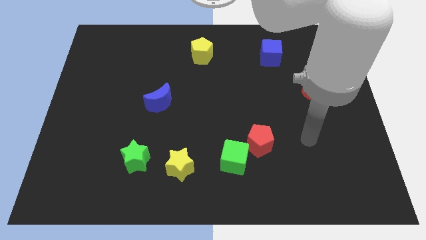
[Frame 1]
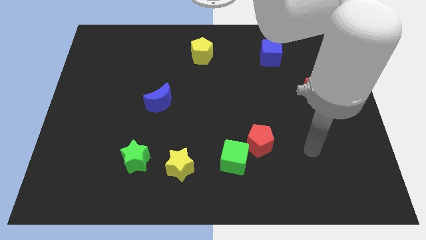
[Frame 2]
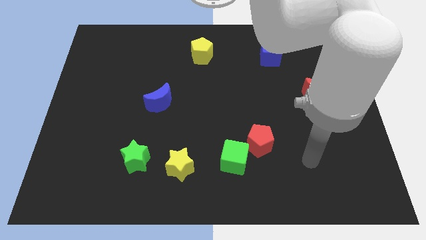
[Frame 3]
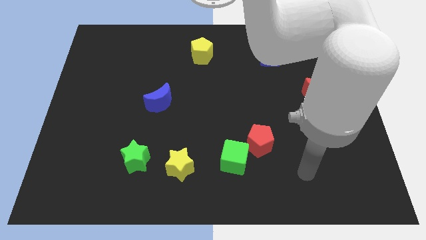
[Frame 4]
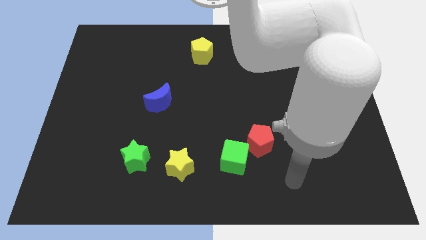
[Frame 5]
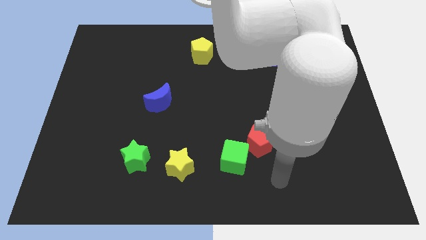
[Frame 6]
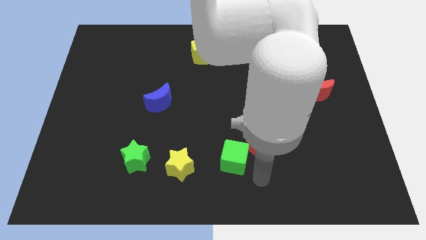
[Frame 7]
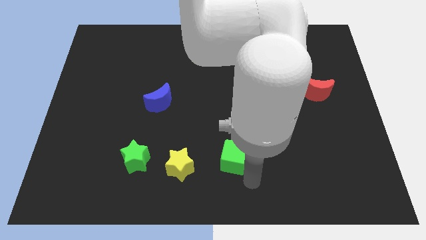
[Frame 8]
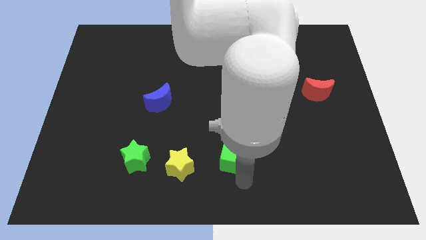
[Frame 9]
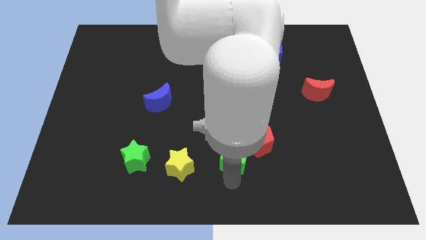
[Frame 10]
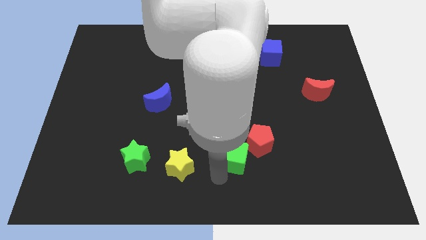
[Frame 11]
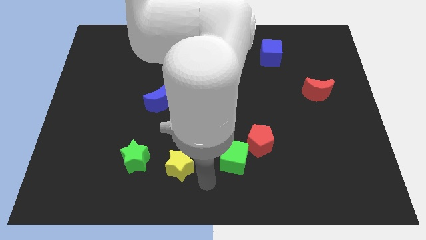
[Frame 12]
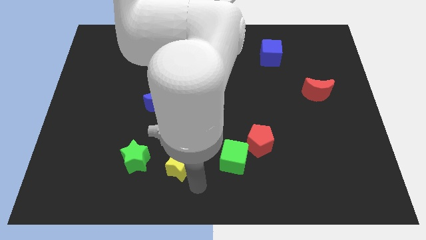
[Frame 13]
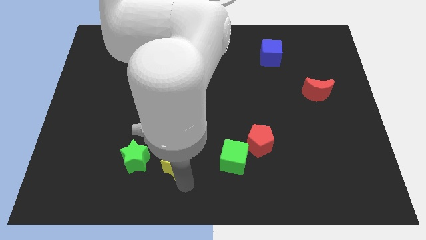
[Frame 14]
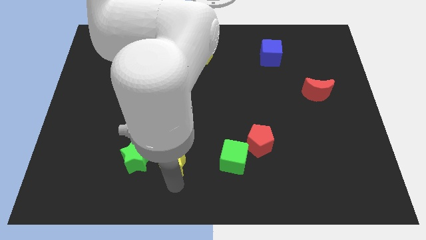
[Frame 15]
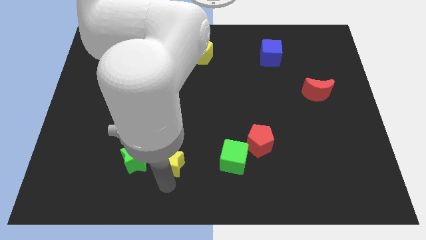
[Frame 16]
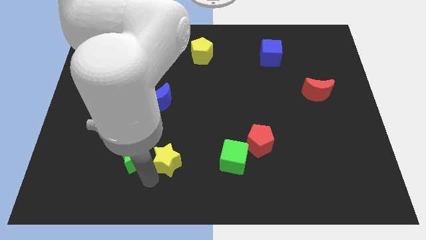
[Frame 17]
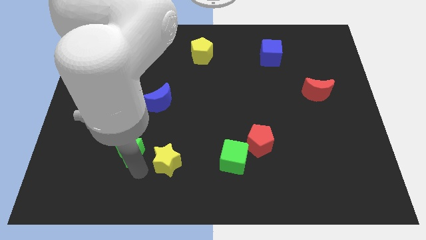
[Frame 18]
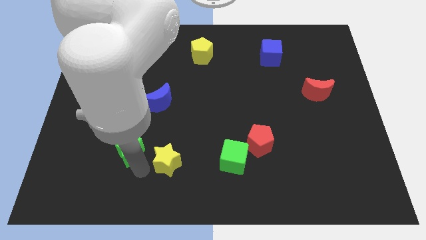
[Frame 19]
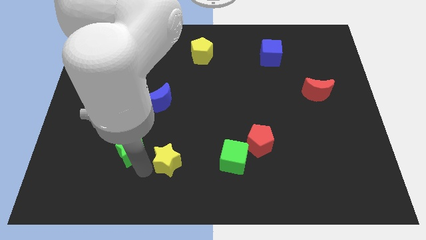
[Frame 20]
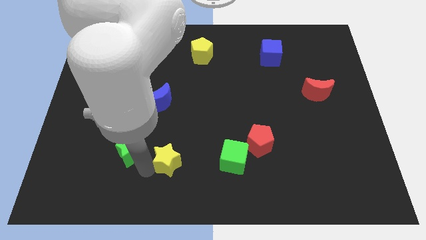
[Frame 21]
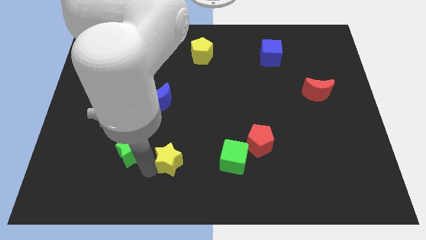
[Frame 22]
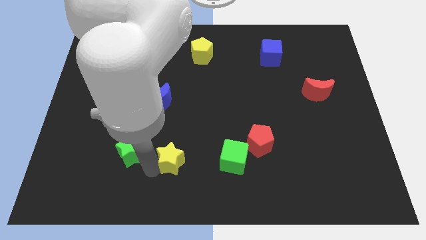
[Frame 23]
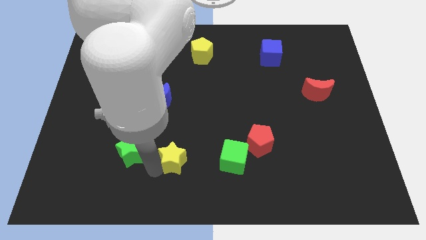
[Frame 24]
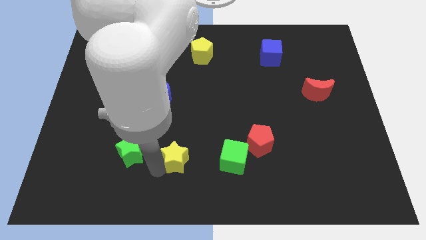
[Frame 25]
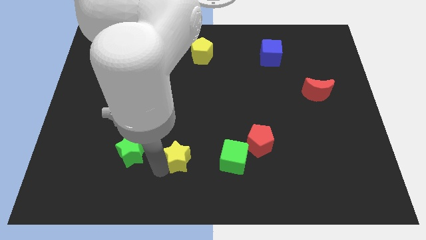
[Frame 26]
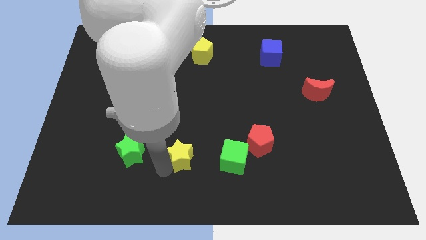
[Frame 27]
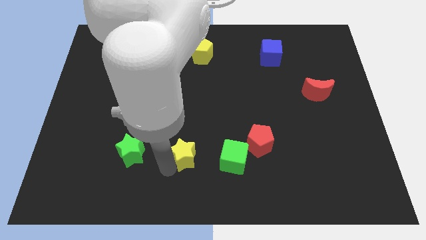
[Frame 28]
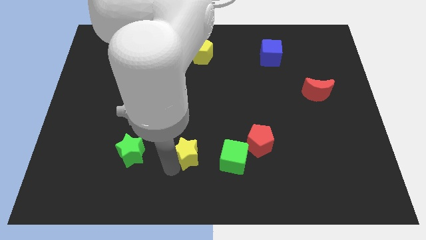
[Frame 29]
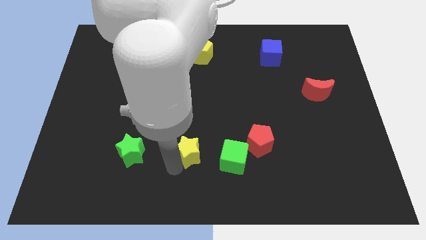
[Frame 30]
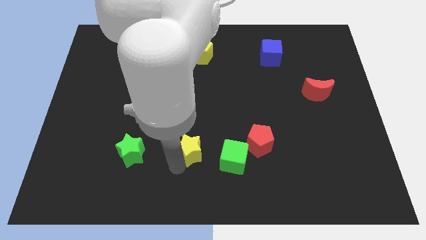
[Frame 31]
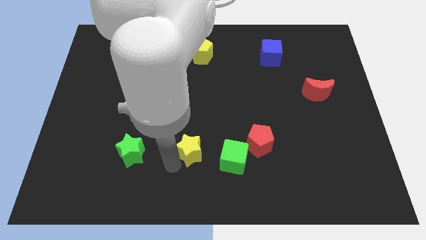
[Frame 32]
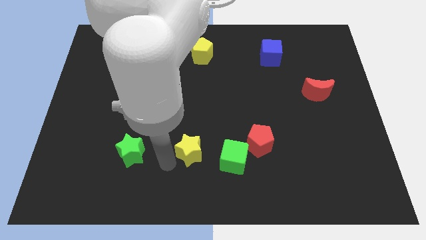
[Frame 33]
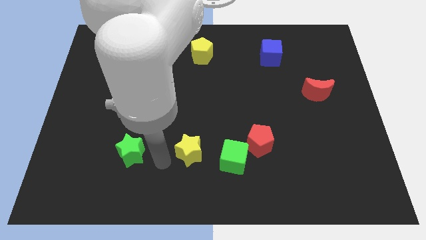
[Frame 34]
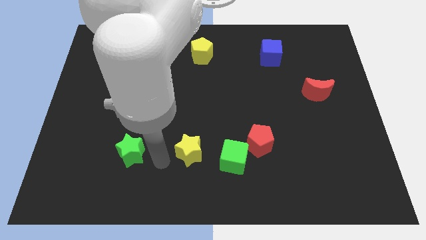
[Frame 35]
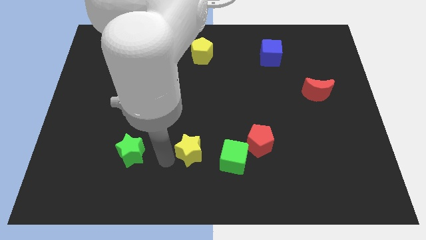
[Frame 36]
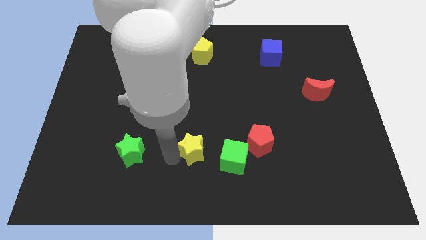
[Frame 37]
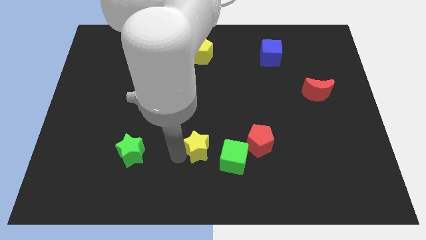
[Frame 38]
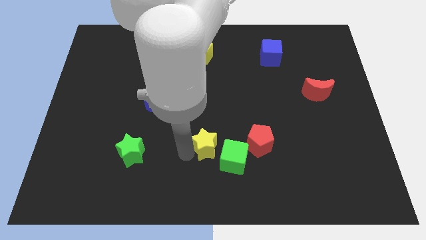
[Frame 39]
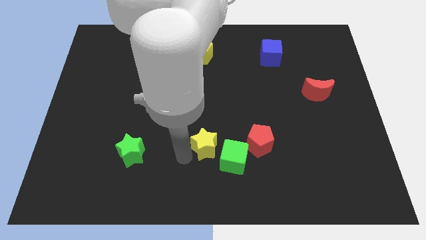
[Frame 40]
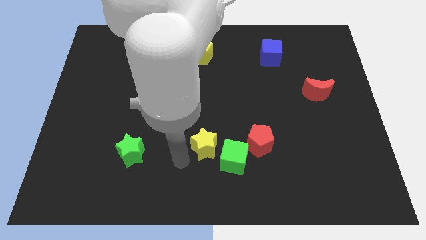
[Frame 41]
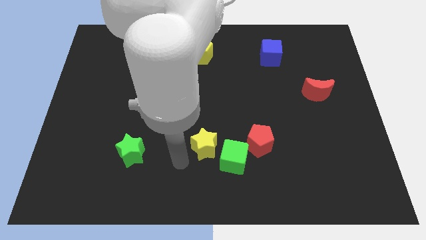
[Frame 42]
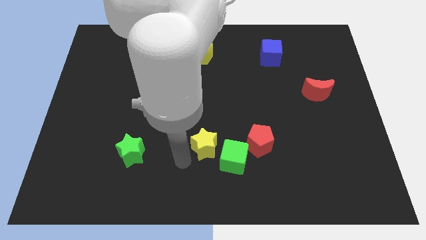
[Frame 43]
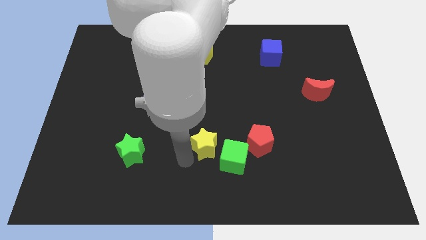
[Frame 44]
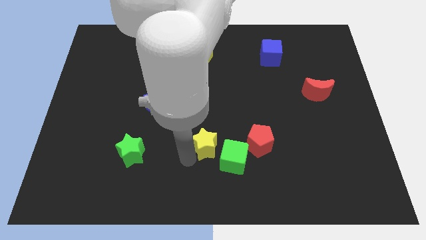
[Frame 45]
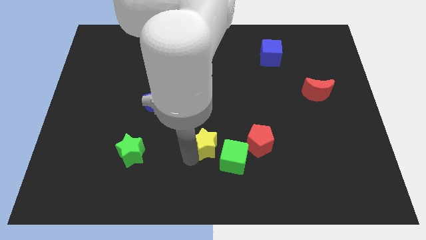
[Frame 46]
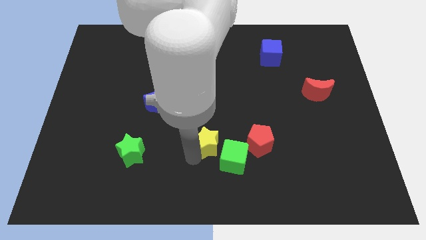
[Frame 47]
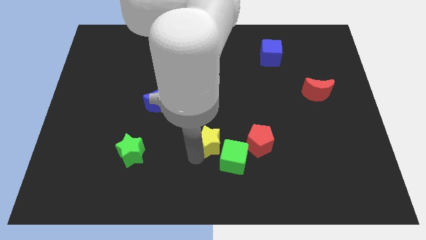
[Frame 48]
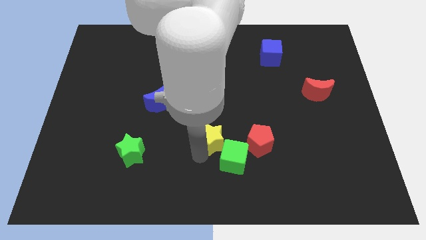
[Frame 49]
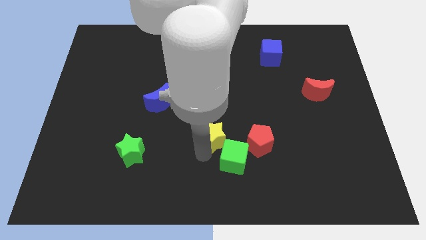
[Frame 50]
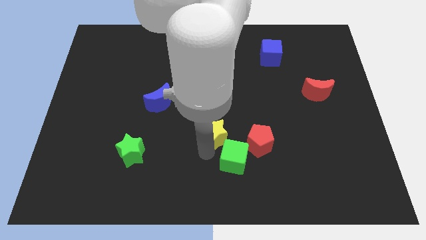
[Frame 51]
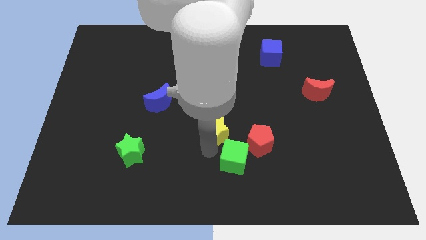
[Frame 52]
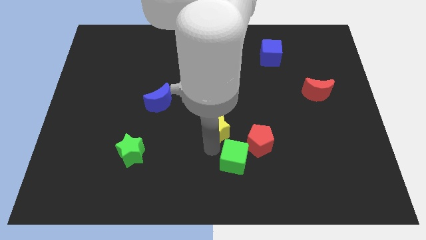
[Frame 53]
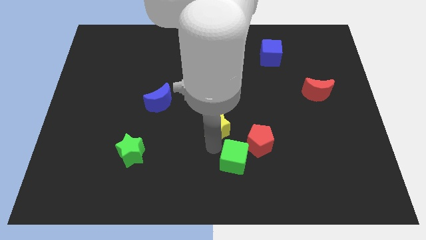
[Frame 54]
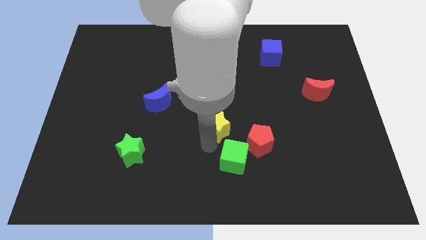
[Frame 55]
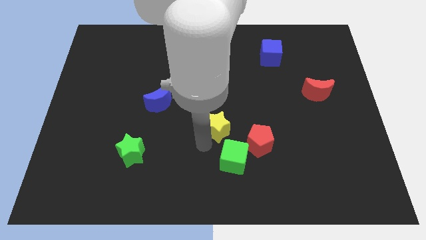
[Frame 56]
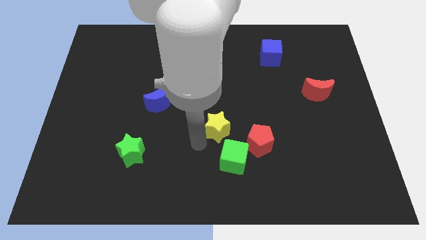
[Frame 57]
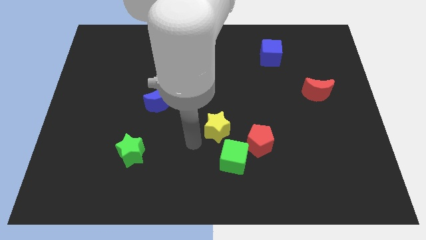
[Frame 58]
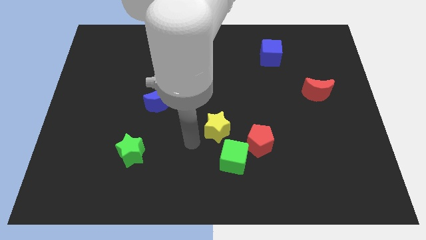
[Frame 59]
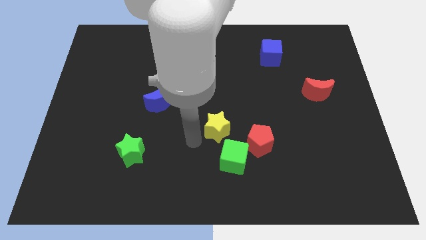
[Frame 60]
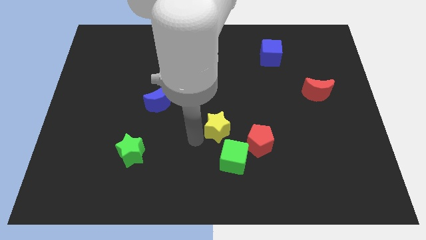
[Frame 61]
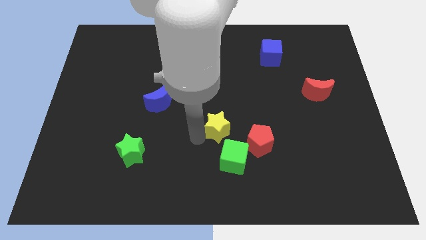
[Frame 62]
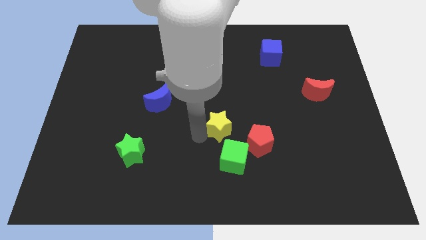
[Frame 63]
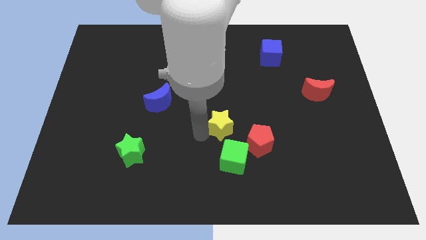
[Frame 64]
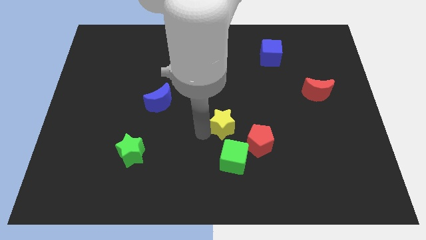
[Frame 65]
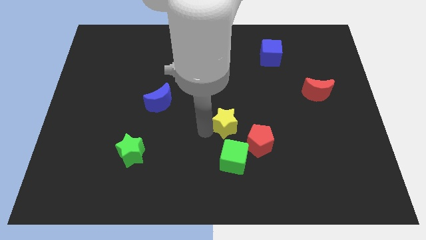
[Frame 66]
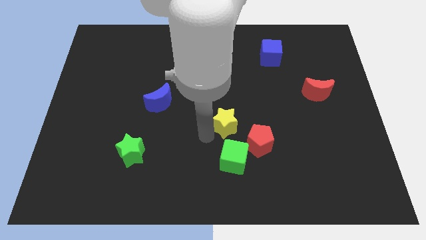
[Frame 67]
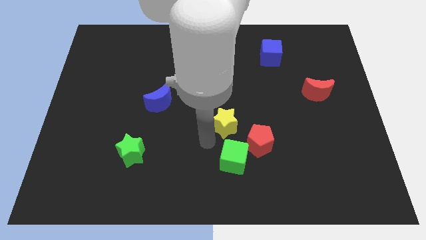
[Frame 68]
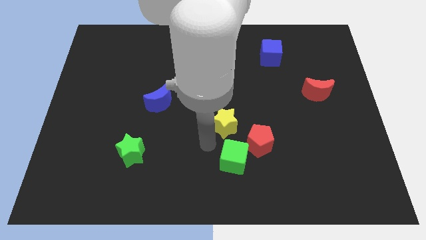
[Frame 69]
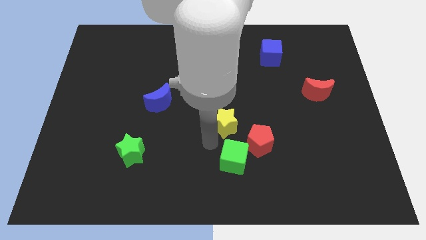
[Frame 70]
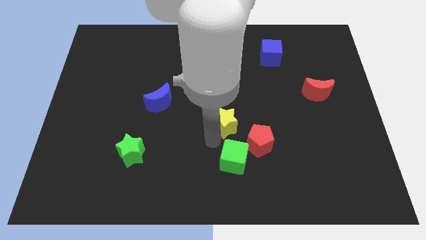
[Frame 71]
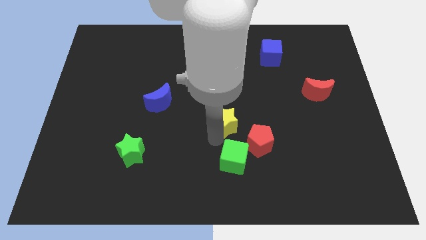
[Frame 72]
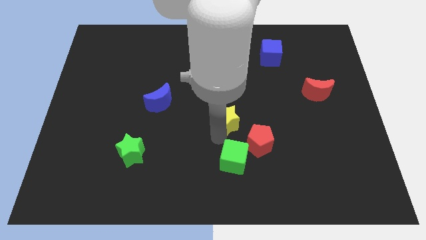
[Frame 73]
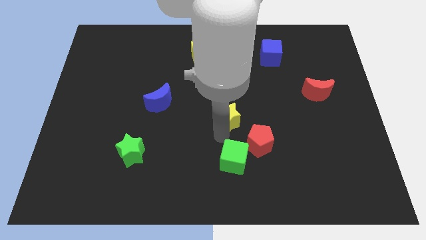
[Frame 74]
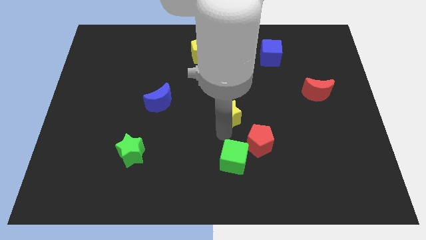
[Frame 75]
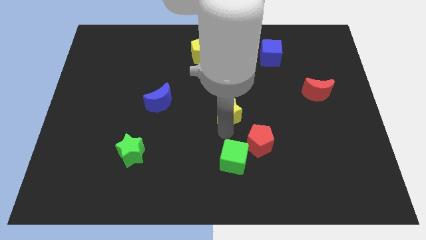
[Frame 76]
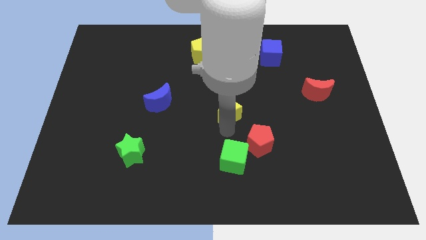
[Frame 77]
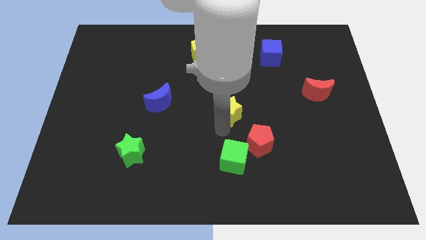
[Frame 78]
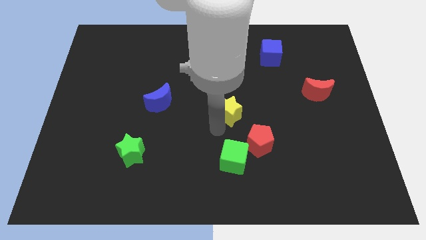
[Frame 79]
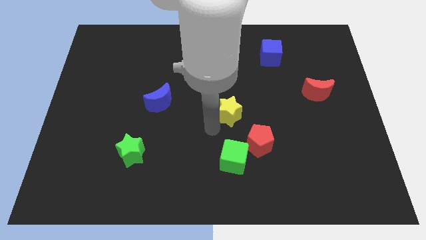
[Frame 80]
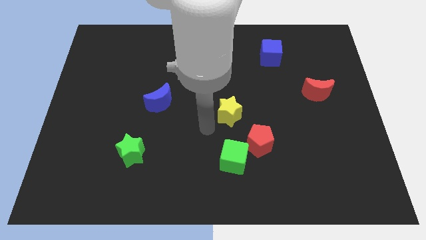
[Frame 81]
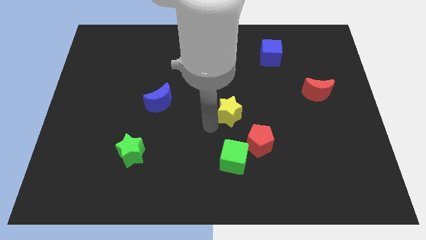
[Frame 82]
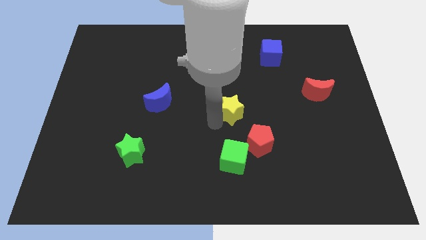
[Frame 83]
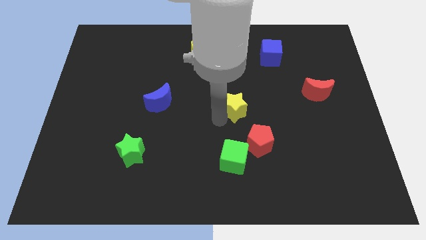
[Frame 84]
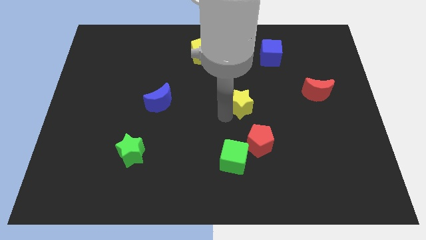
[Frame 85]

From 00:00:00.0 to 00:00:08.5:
move the yellow star up and then right
